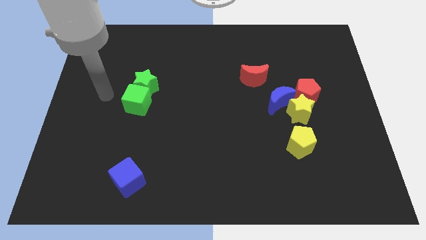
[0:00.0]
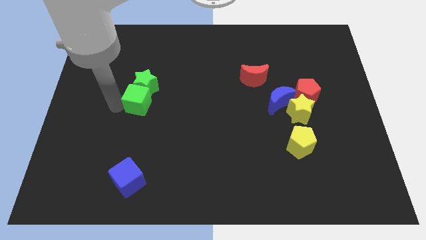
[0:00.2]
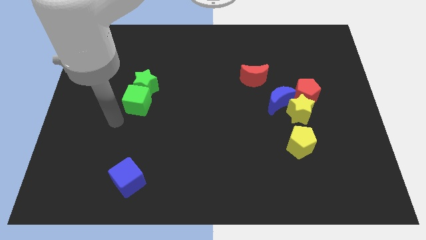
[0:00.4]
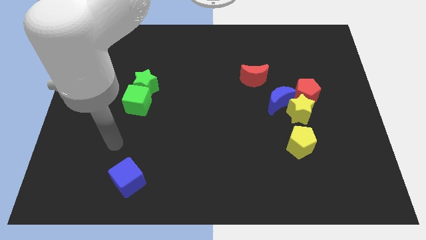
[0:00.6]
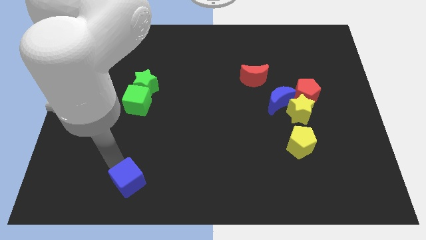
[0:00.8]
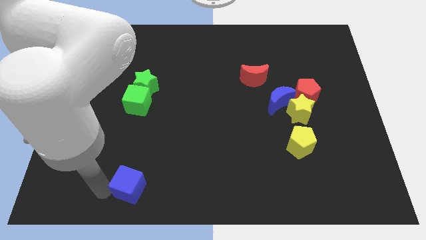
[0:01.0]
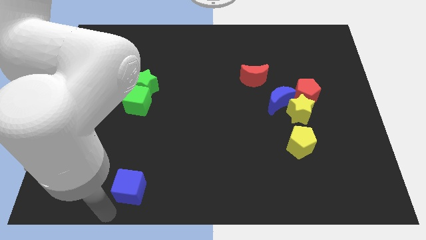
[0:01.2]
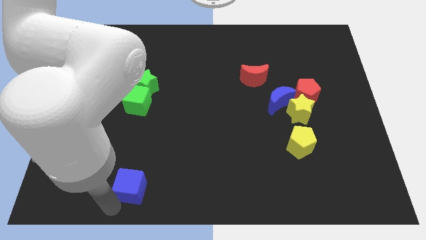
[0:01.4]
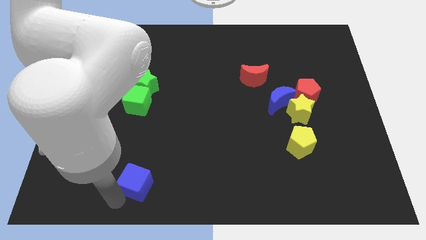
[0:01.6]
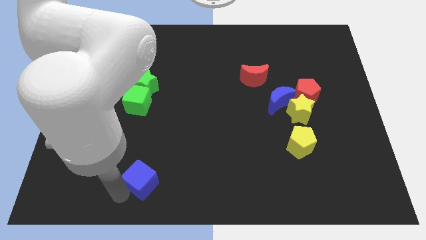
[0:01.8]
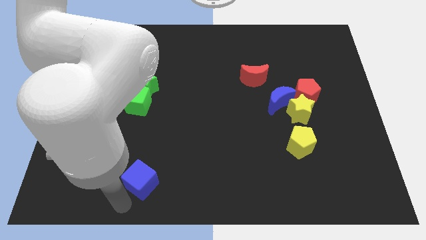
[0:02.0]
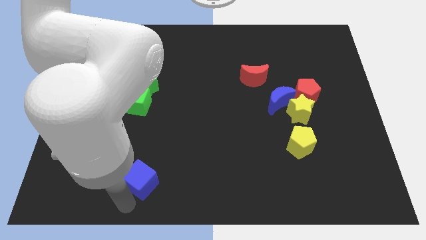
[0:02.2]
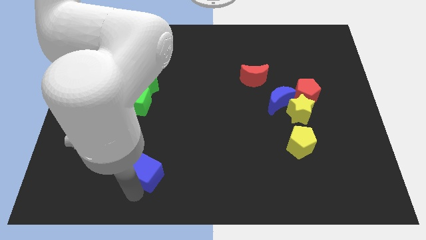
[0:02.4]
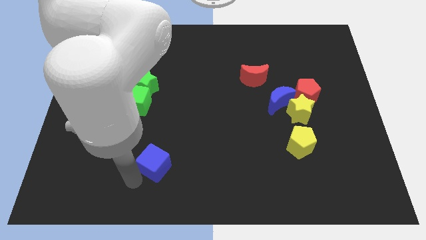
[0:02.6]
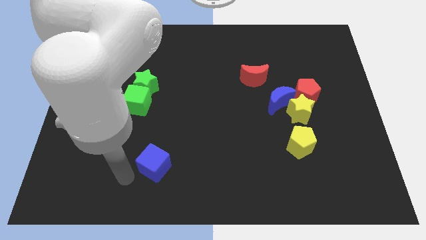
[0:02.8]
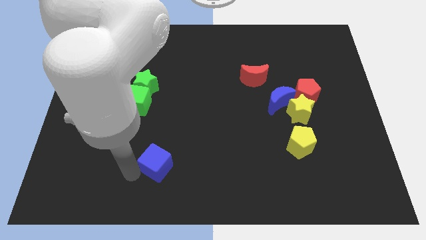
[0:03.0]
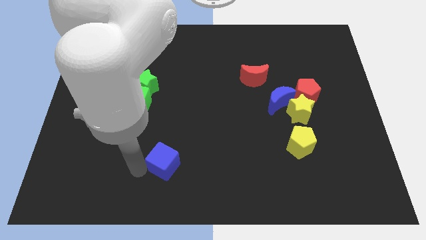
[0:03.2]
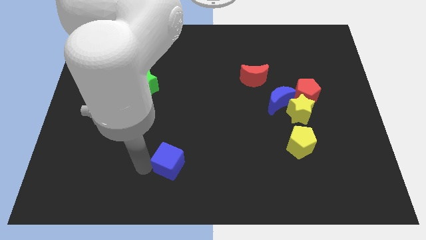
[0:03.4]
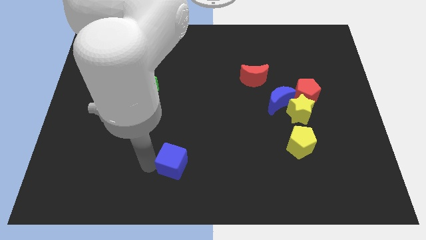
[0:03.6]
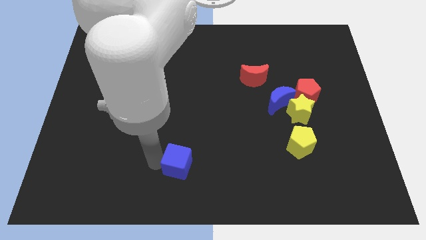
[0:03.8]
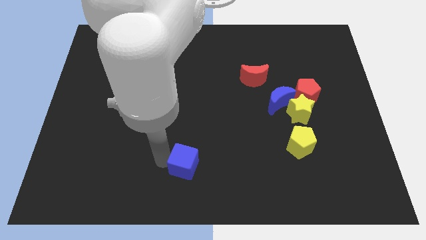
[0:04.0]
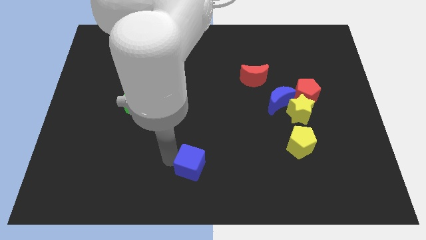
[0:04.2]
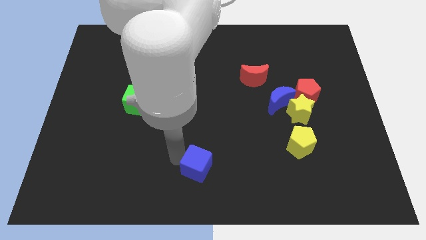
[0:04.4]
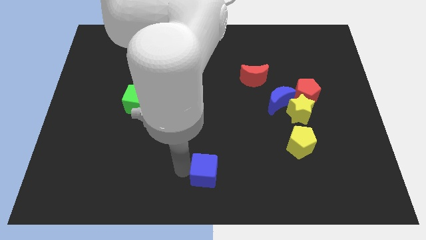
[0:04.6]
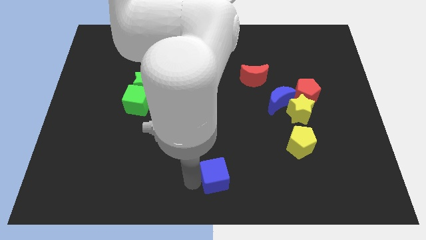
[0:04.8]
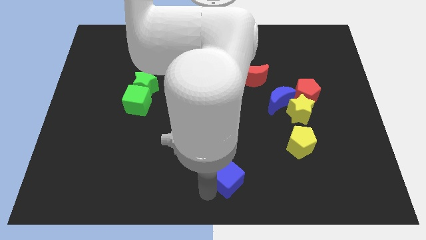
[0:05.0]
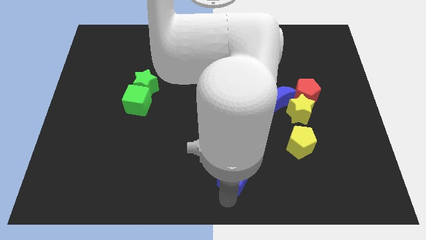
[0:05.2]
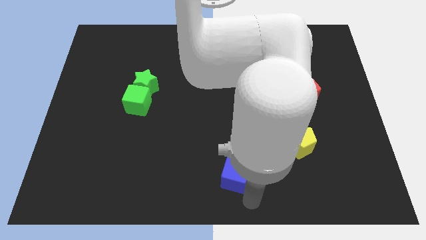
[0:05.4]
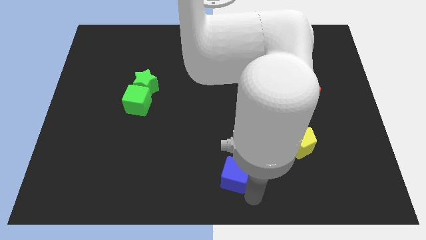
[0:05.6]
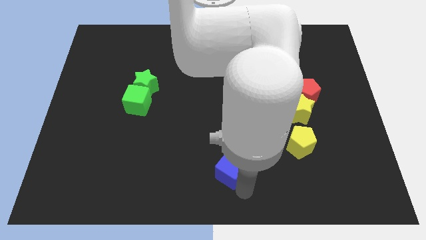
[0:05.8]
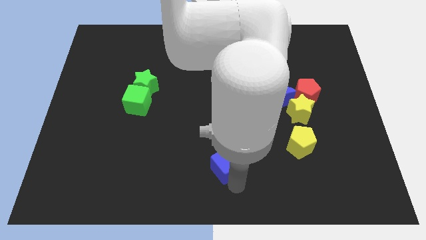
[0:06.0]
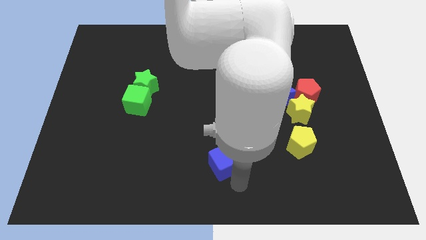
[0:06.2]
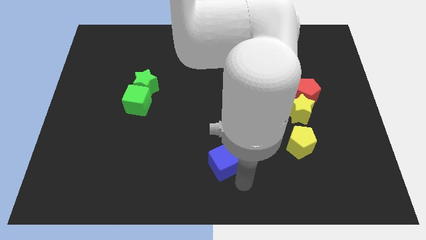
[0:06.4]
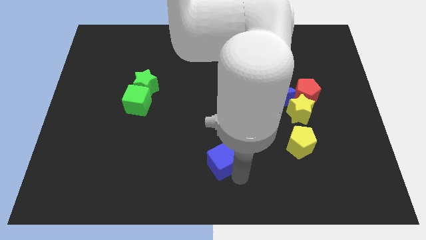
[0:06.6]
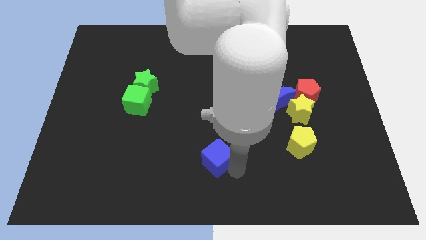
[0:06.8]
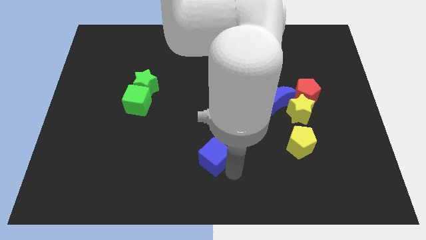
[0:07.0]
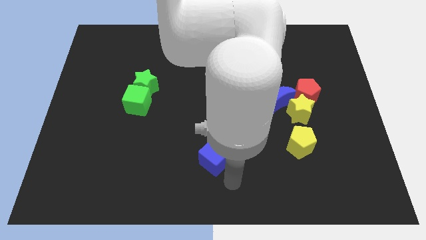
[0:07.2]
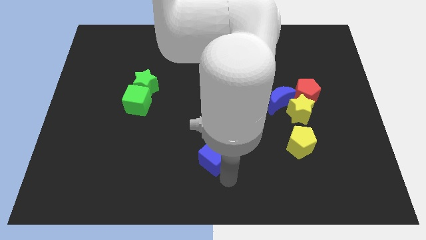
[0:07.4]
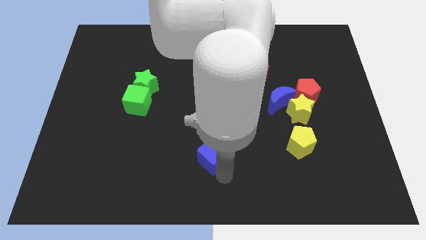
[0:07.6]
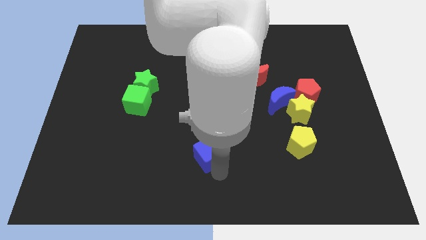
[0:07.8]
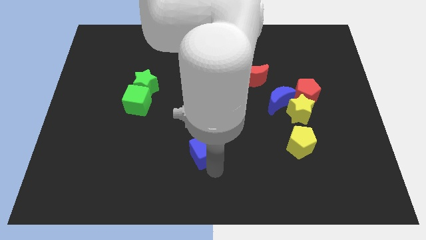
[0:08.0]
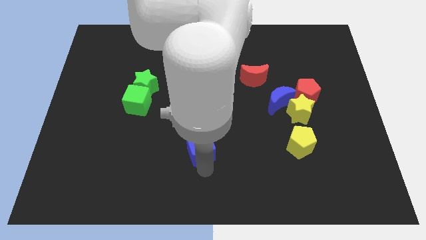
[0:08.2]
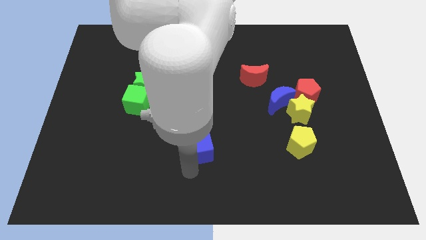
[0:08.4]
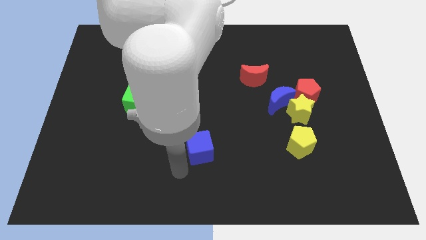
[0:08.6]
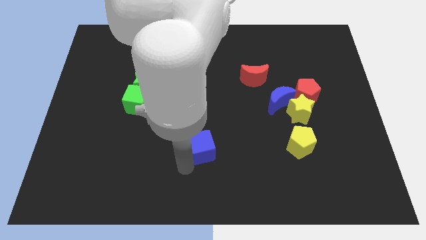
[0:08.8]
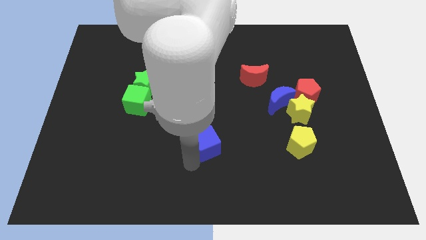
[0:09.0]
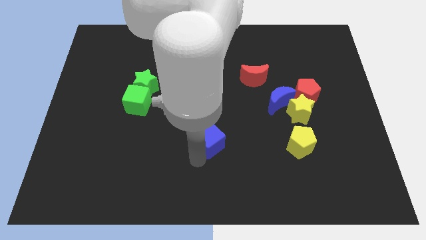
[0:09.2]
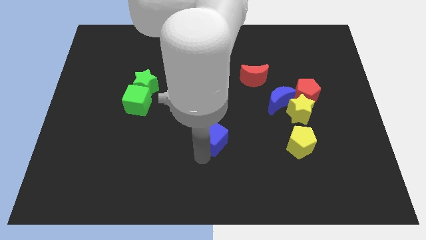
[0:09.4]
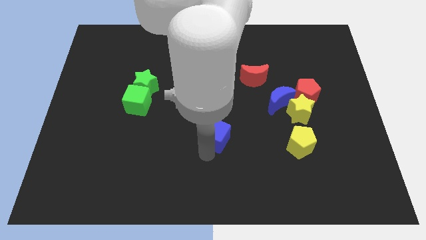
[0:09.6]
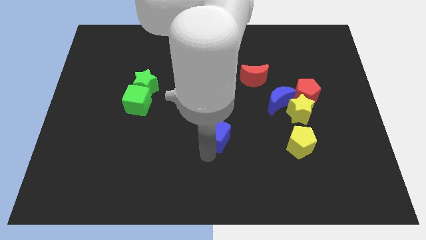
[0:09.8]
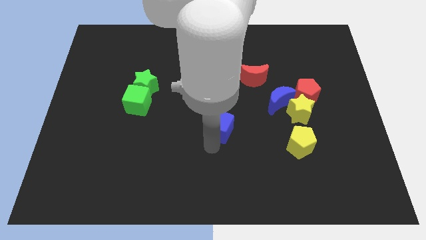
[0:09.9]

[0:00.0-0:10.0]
push the blue cube upwards and then right

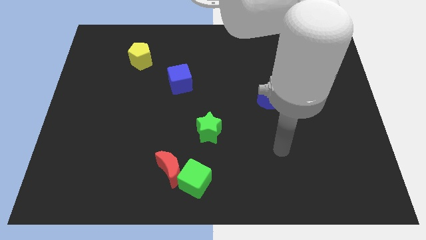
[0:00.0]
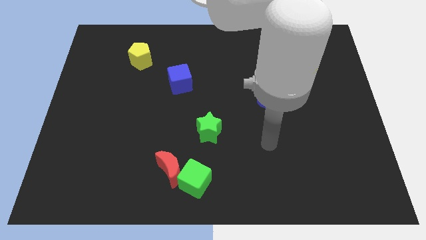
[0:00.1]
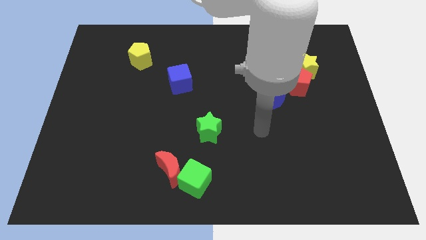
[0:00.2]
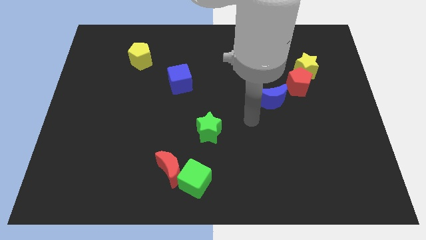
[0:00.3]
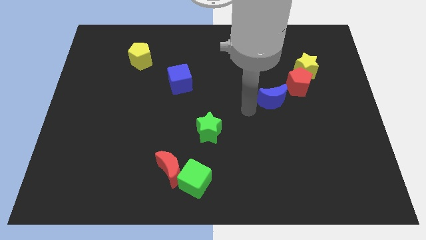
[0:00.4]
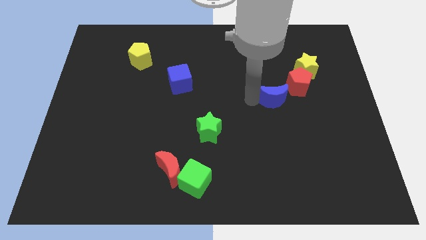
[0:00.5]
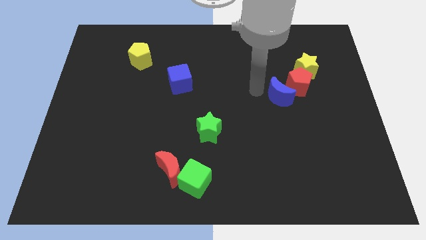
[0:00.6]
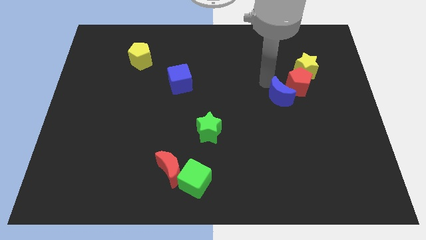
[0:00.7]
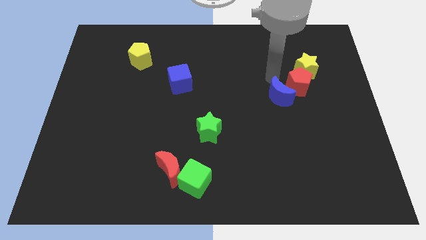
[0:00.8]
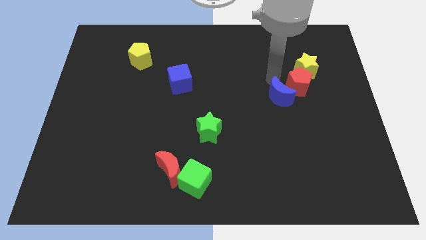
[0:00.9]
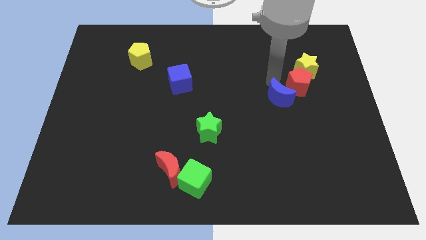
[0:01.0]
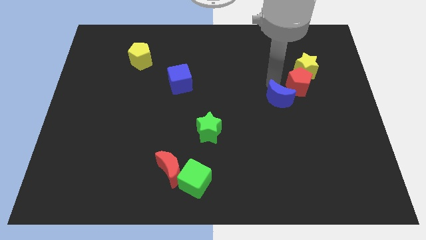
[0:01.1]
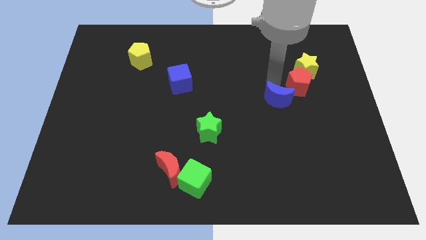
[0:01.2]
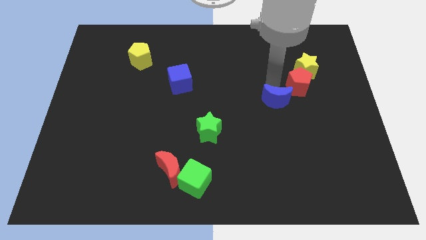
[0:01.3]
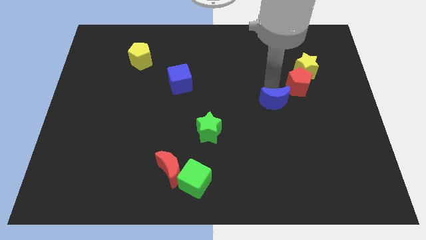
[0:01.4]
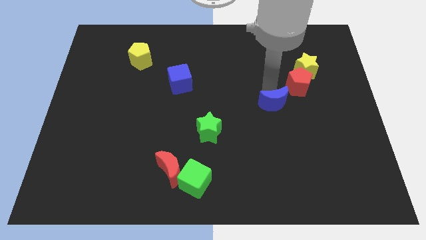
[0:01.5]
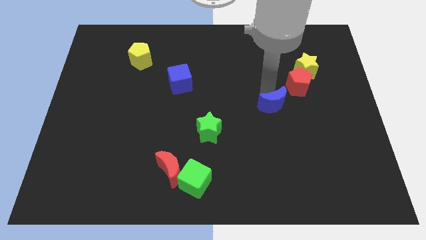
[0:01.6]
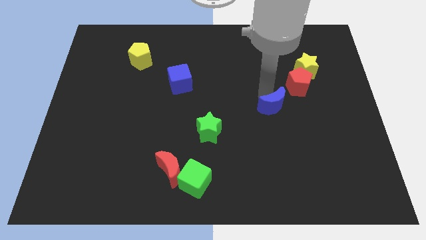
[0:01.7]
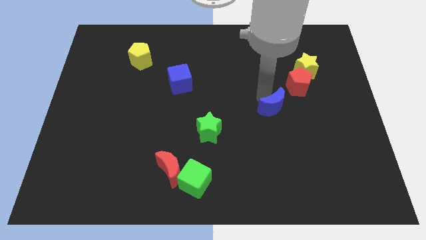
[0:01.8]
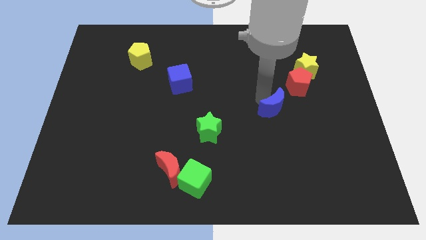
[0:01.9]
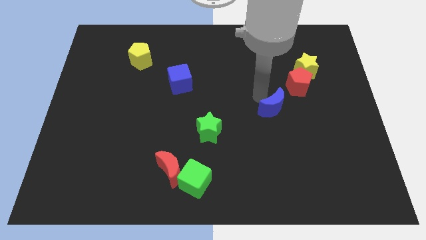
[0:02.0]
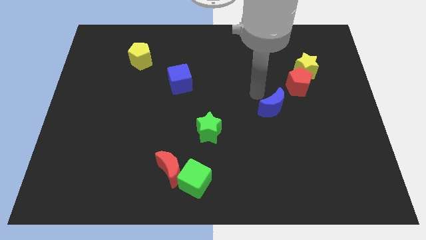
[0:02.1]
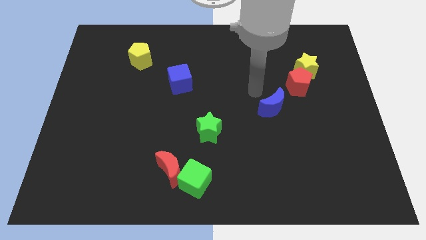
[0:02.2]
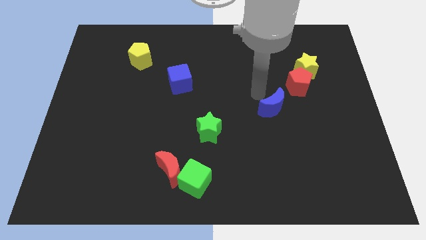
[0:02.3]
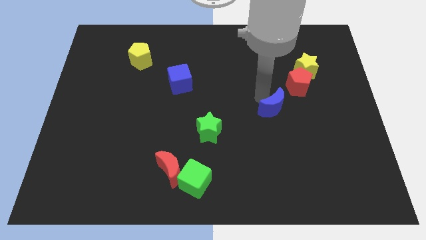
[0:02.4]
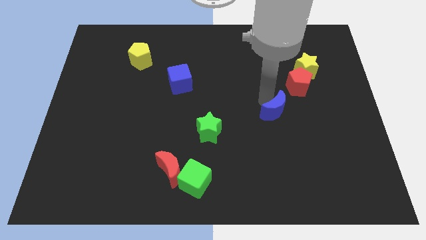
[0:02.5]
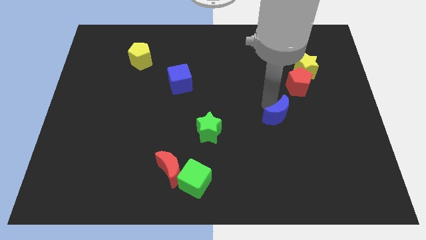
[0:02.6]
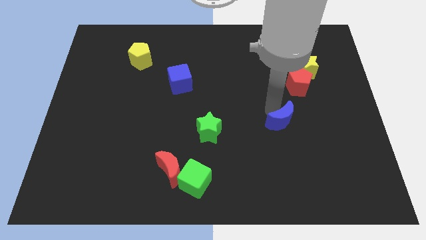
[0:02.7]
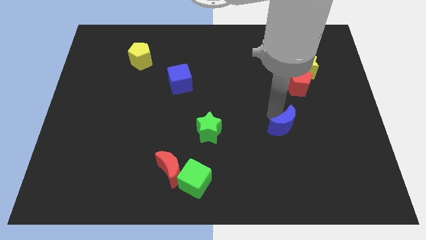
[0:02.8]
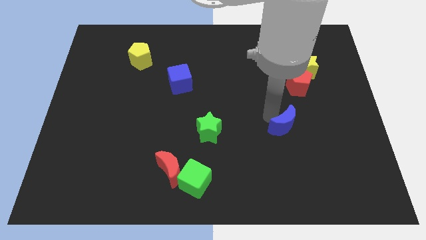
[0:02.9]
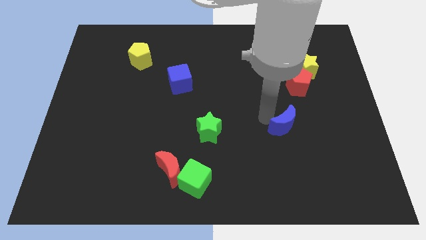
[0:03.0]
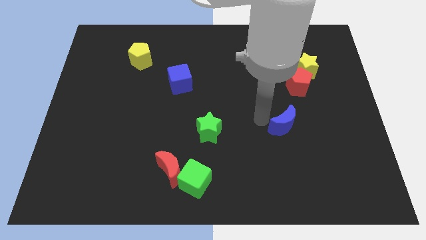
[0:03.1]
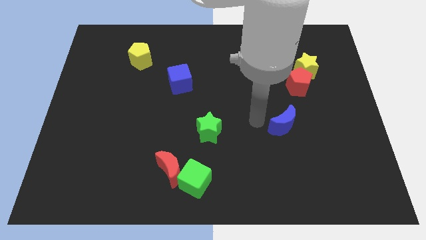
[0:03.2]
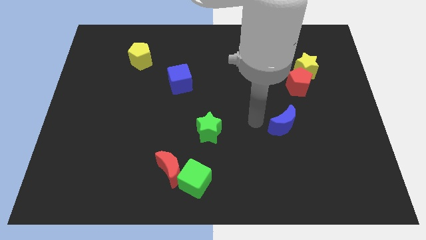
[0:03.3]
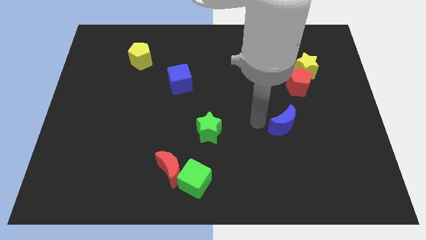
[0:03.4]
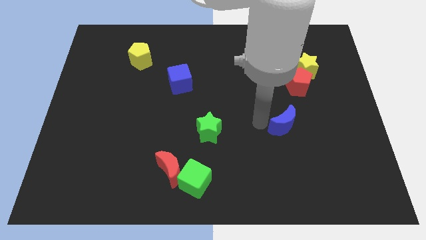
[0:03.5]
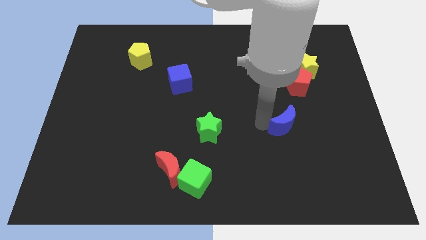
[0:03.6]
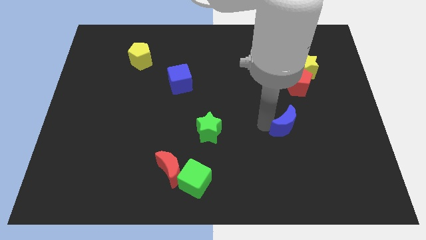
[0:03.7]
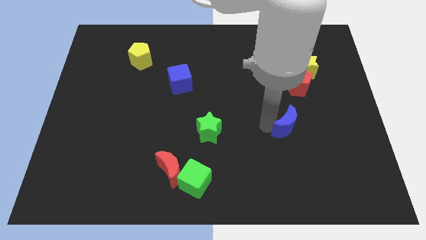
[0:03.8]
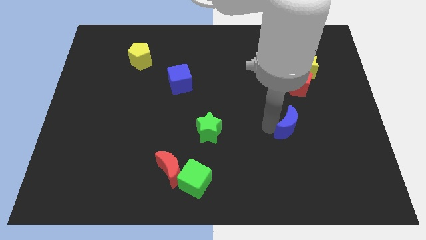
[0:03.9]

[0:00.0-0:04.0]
move the blue moon a little bit down and to the right
